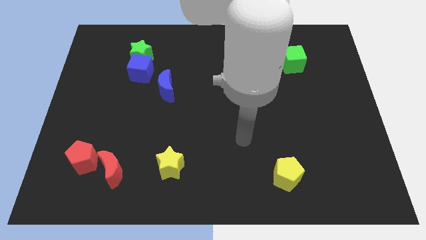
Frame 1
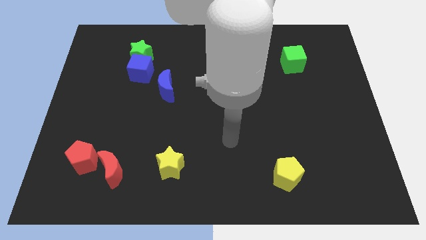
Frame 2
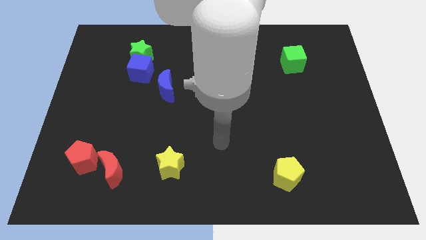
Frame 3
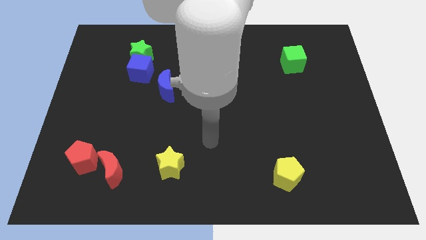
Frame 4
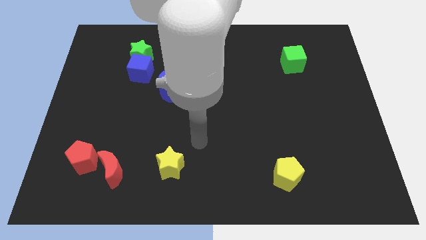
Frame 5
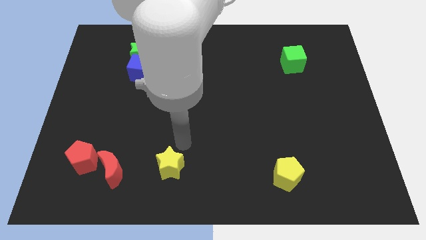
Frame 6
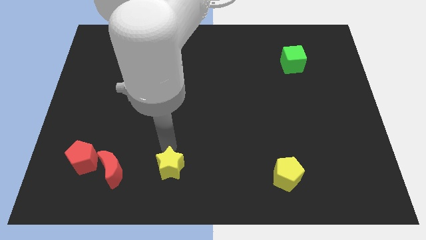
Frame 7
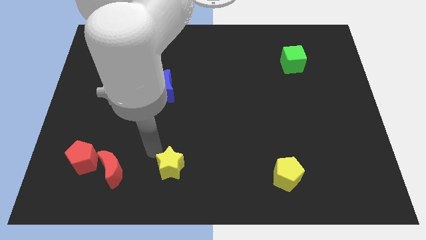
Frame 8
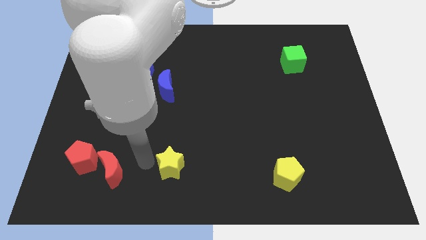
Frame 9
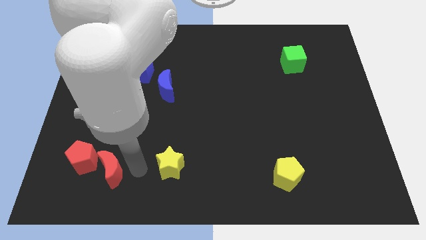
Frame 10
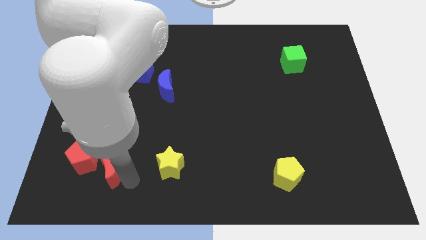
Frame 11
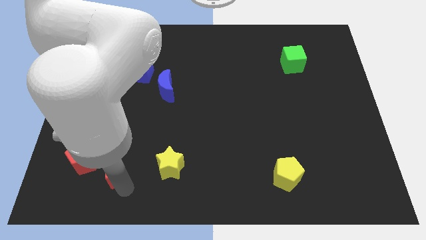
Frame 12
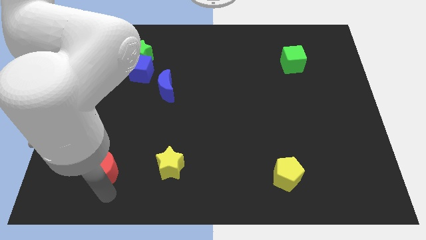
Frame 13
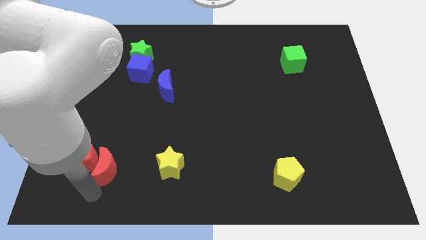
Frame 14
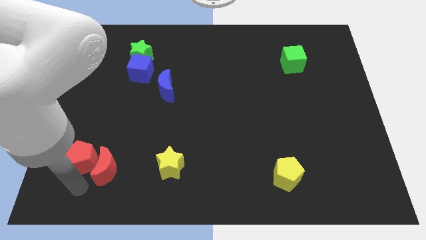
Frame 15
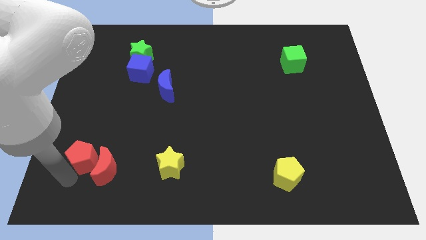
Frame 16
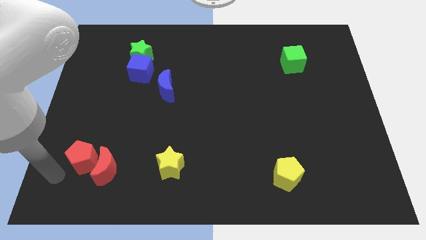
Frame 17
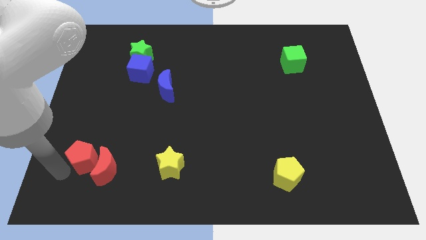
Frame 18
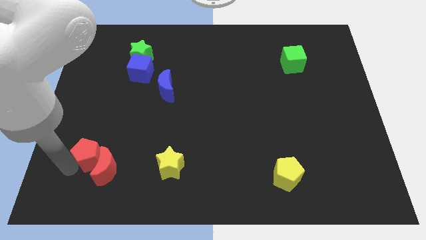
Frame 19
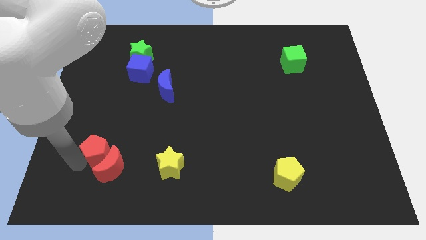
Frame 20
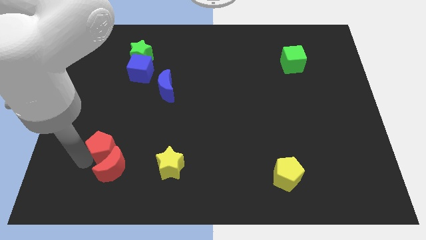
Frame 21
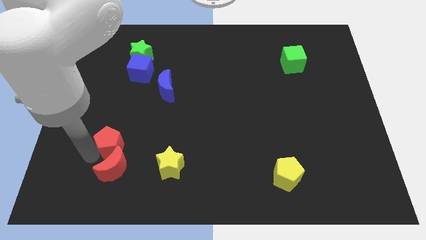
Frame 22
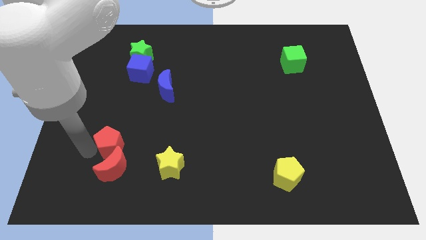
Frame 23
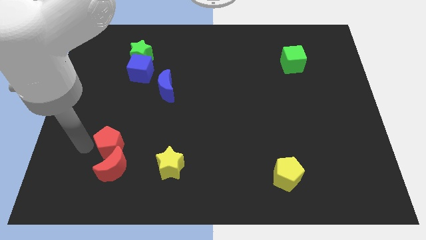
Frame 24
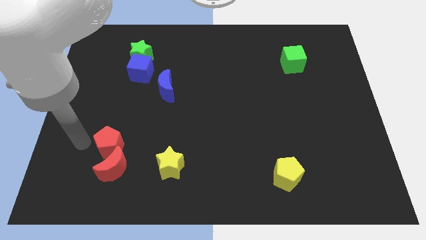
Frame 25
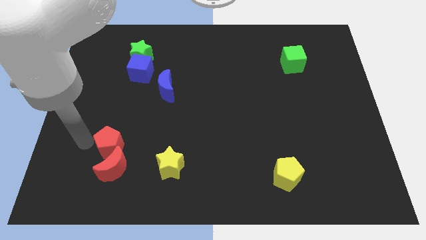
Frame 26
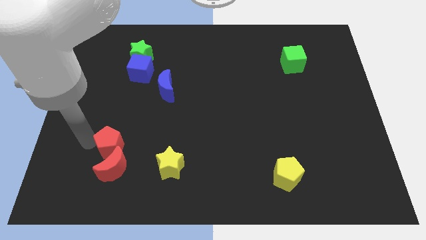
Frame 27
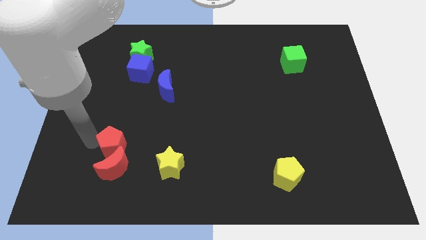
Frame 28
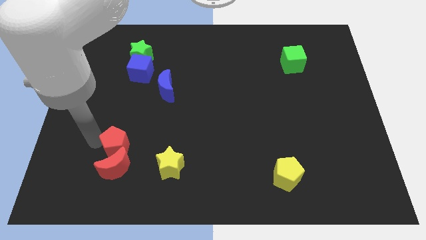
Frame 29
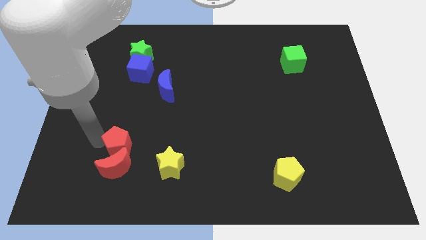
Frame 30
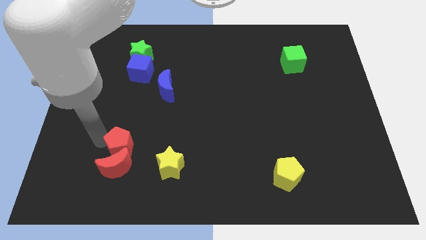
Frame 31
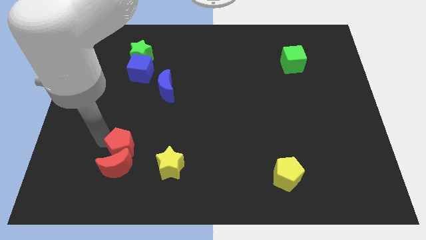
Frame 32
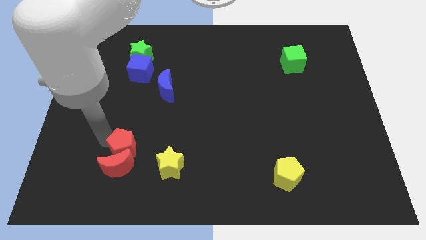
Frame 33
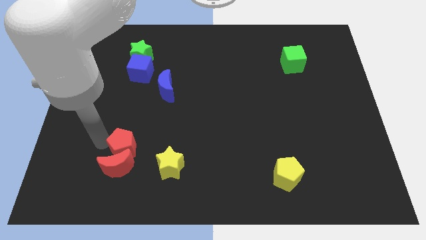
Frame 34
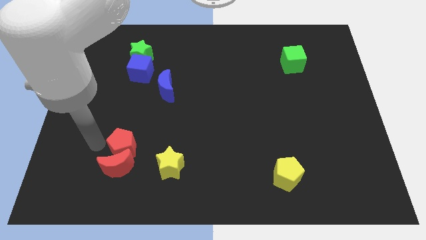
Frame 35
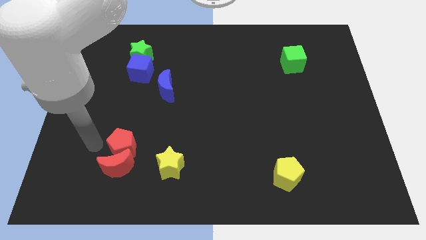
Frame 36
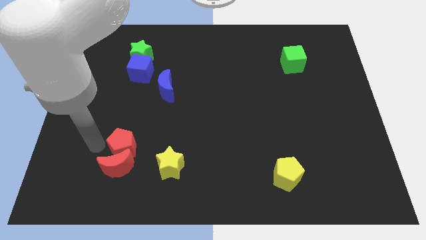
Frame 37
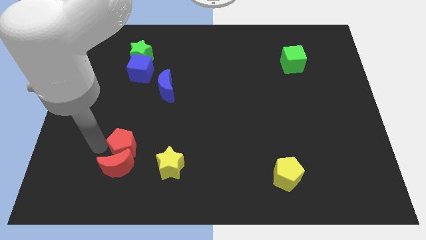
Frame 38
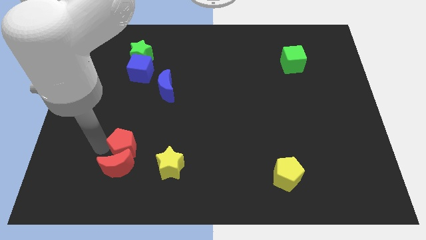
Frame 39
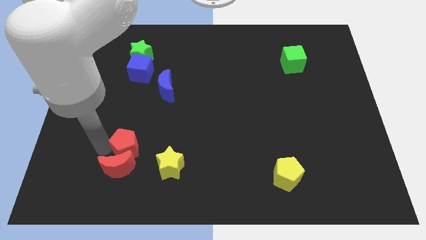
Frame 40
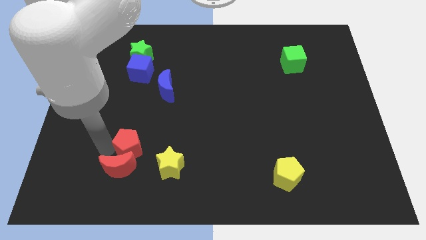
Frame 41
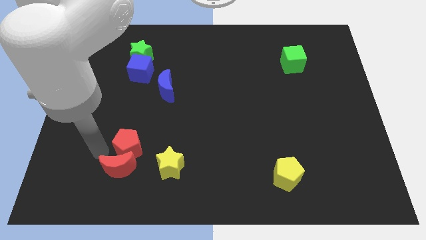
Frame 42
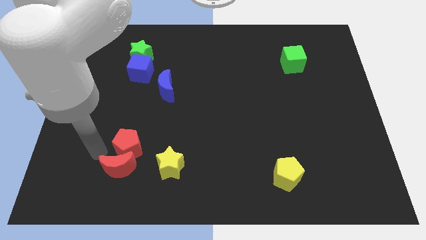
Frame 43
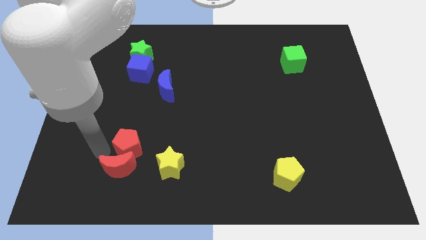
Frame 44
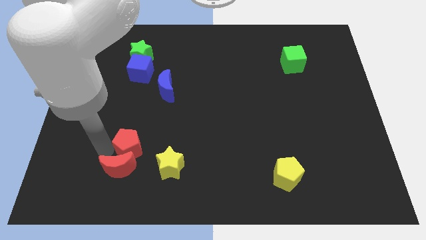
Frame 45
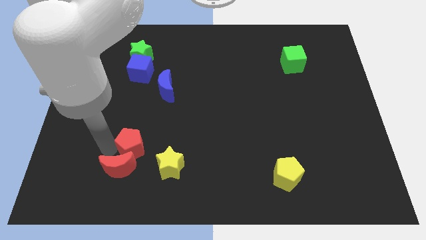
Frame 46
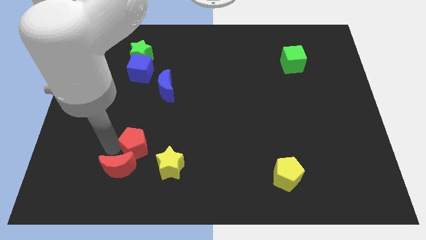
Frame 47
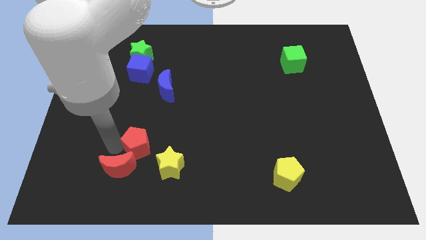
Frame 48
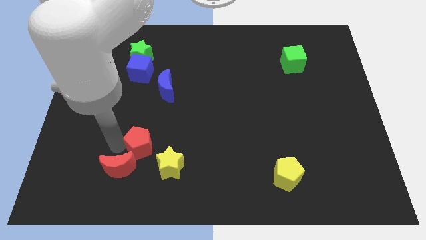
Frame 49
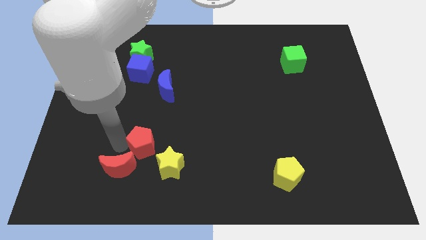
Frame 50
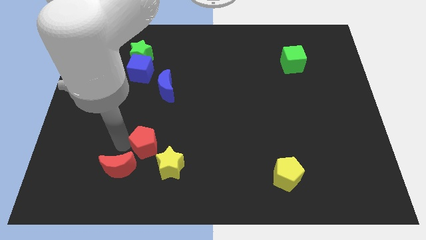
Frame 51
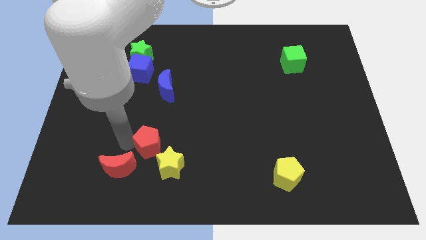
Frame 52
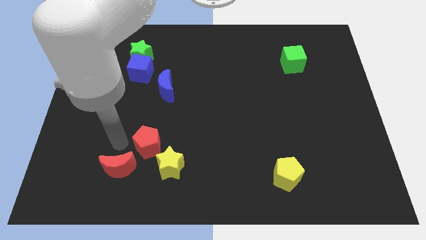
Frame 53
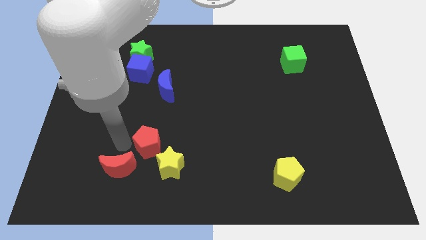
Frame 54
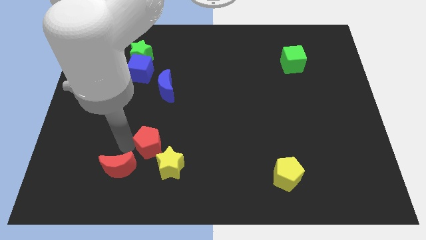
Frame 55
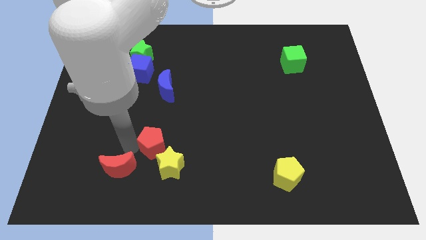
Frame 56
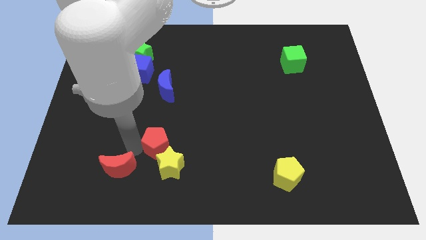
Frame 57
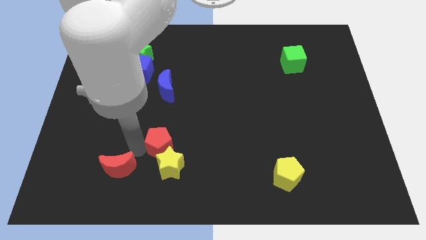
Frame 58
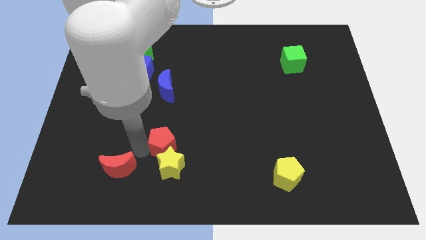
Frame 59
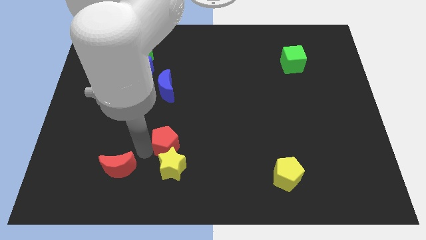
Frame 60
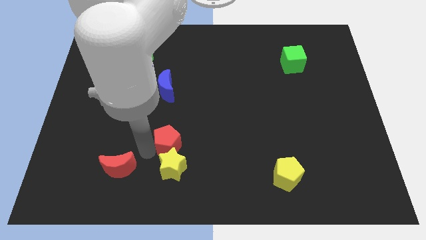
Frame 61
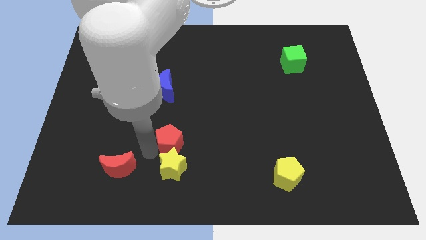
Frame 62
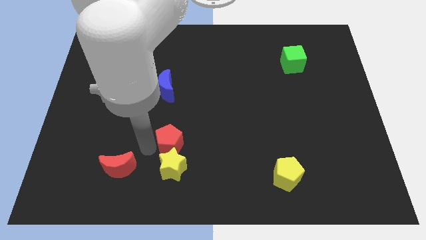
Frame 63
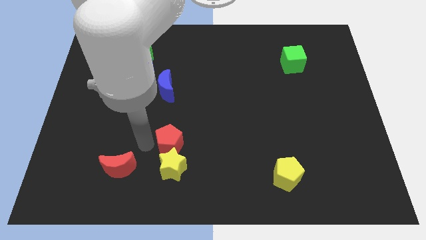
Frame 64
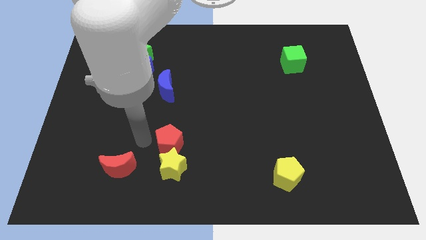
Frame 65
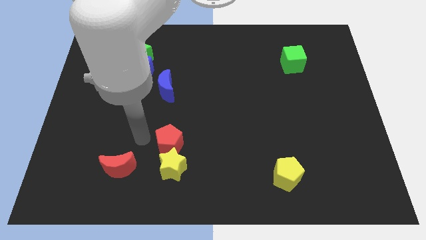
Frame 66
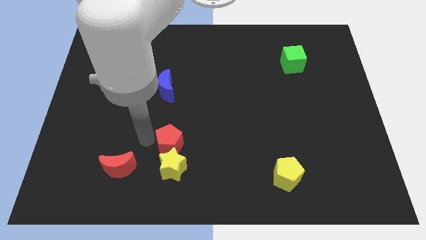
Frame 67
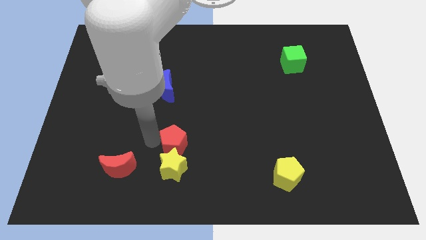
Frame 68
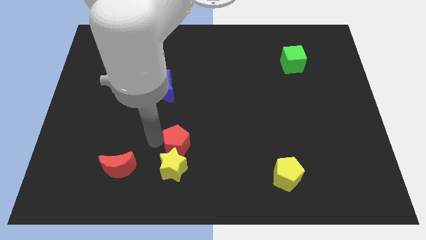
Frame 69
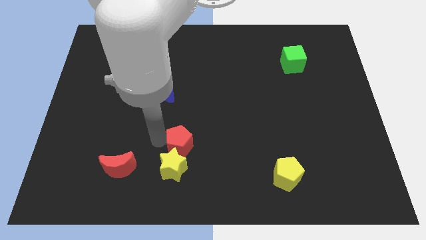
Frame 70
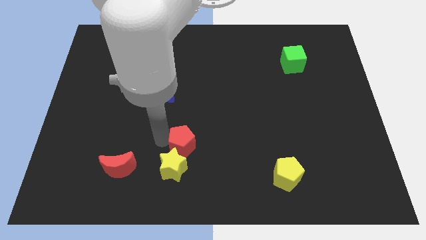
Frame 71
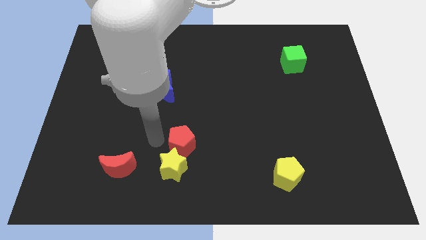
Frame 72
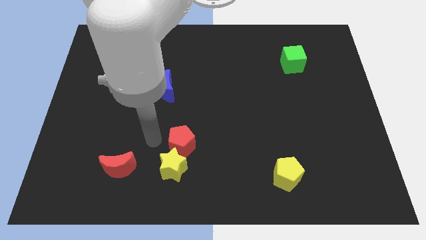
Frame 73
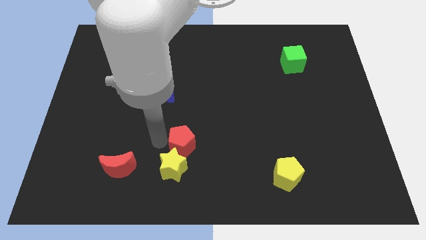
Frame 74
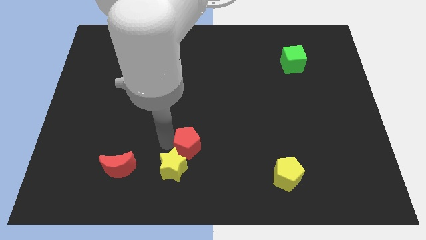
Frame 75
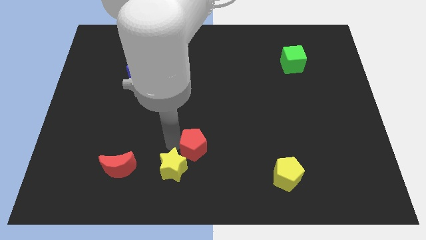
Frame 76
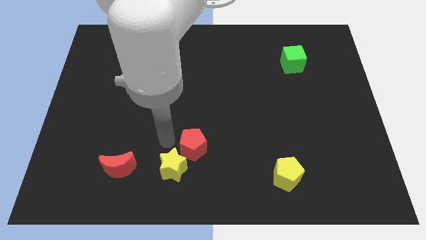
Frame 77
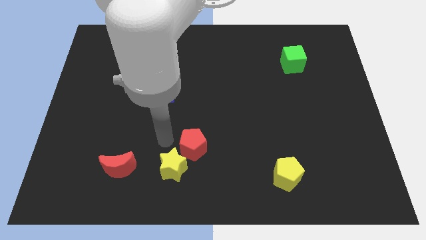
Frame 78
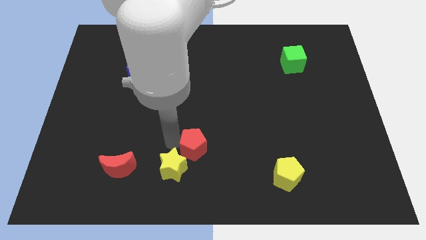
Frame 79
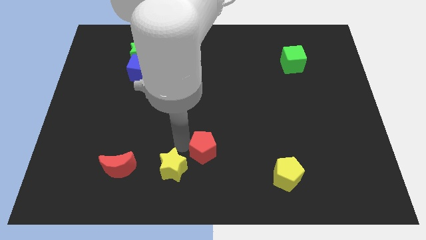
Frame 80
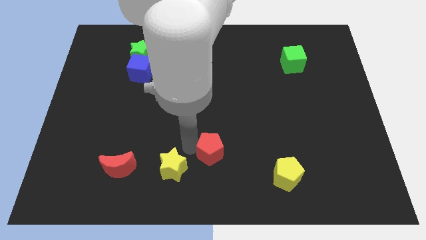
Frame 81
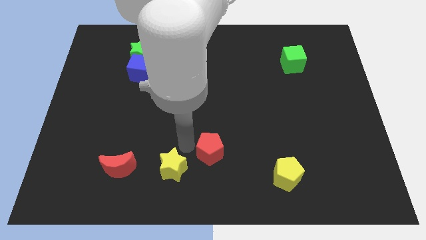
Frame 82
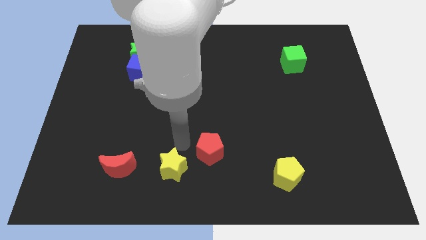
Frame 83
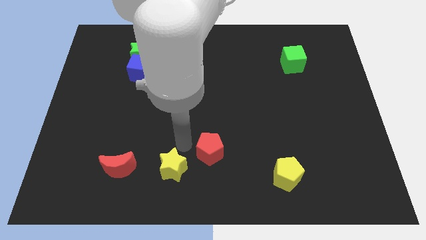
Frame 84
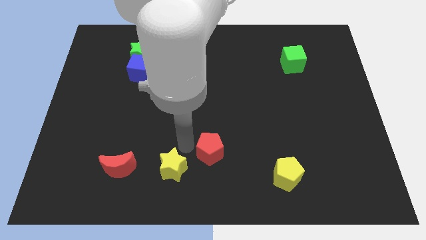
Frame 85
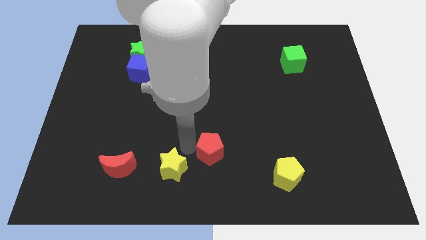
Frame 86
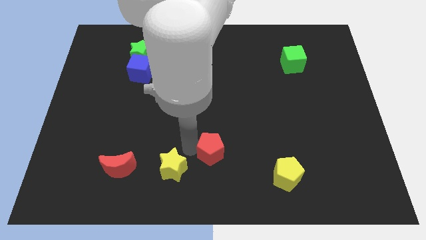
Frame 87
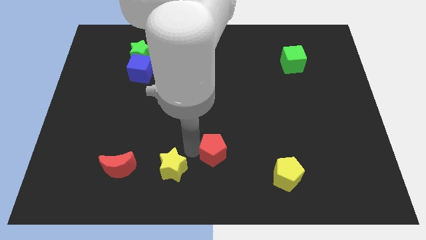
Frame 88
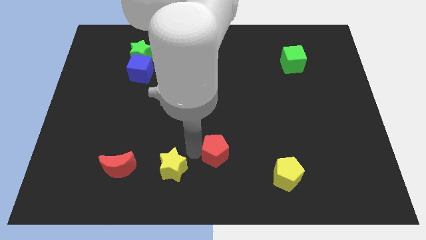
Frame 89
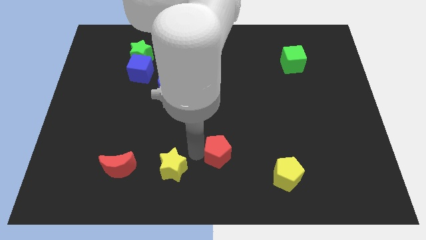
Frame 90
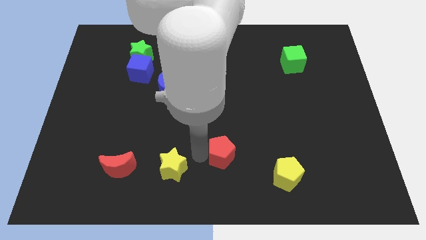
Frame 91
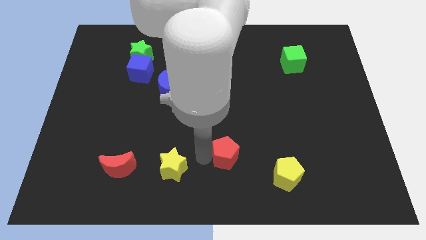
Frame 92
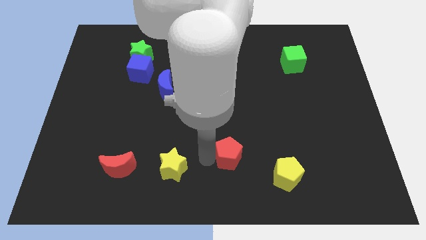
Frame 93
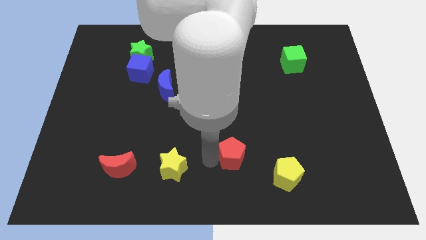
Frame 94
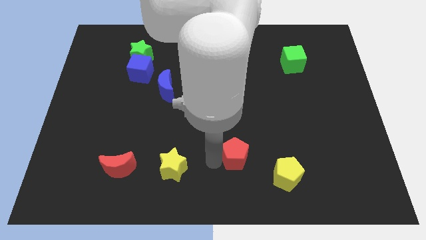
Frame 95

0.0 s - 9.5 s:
put the red pentagon to the top left of the yellow pentagon
